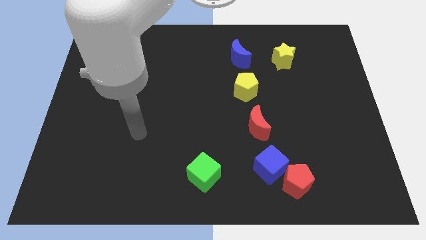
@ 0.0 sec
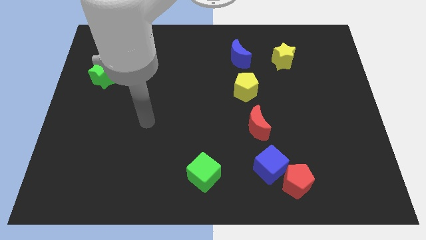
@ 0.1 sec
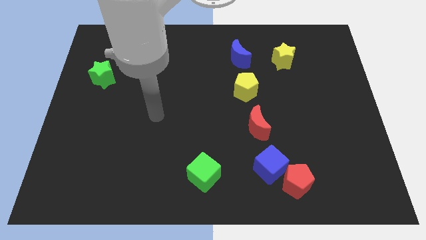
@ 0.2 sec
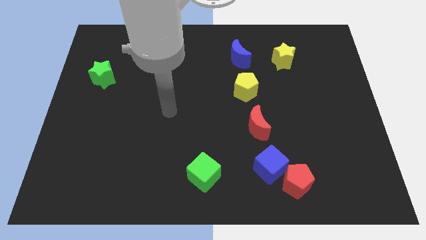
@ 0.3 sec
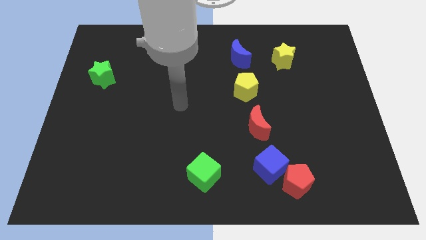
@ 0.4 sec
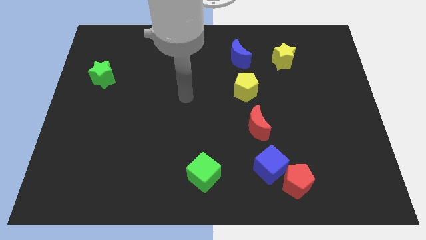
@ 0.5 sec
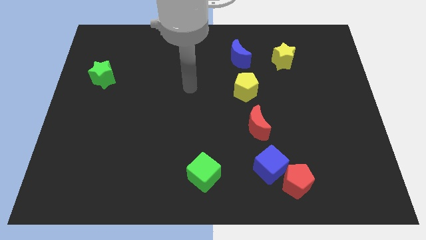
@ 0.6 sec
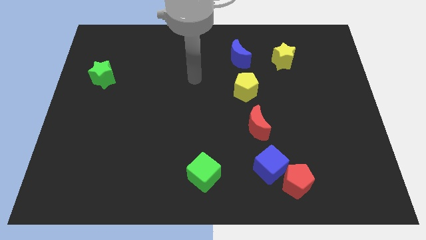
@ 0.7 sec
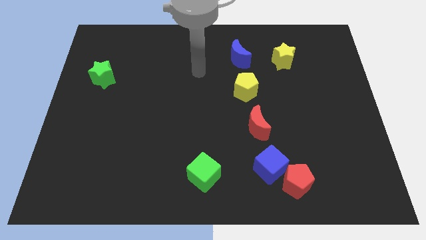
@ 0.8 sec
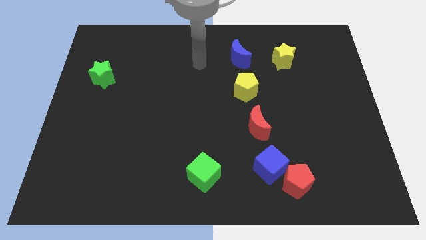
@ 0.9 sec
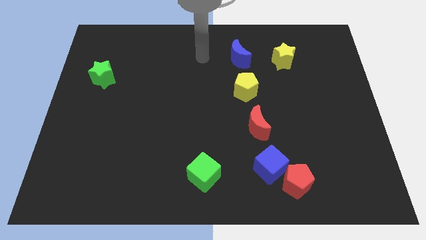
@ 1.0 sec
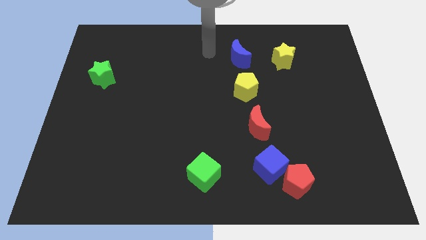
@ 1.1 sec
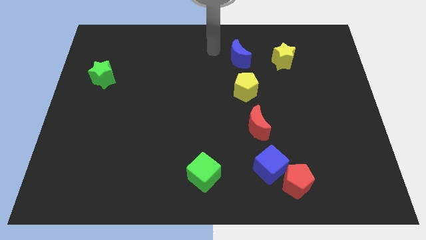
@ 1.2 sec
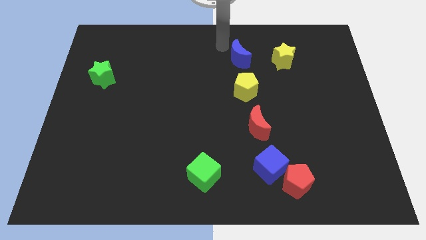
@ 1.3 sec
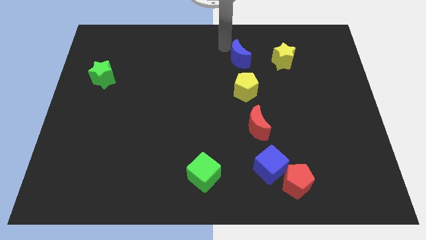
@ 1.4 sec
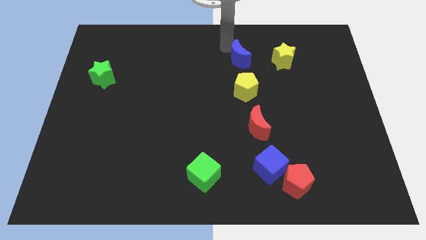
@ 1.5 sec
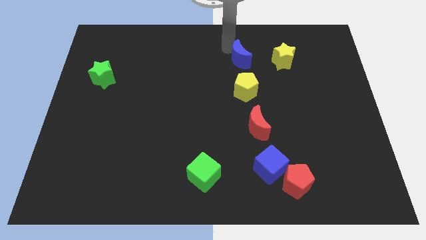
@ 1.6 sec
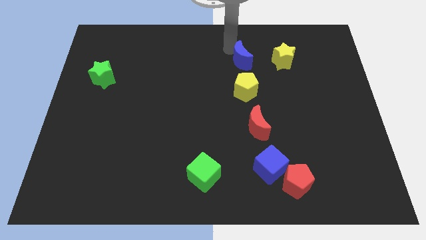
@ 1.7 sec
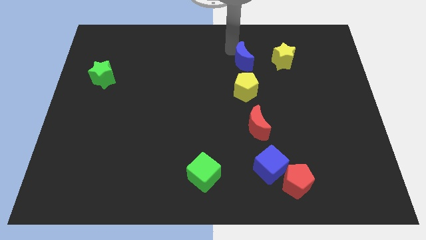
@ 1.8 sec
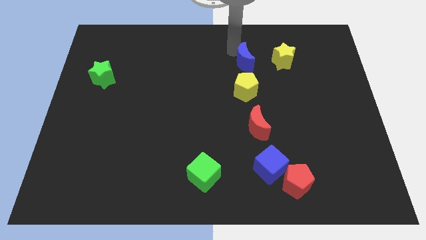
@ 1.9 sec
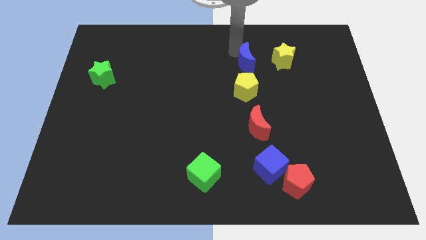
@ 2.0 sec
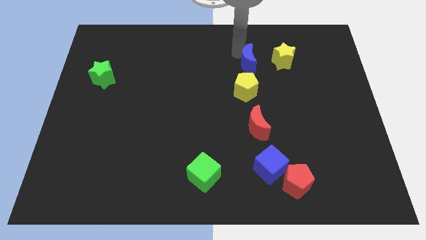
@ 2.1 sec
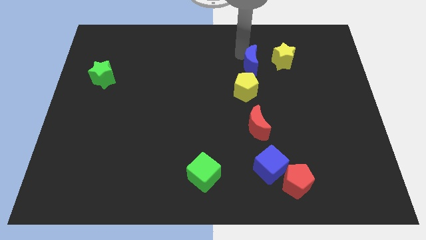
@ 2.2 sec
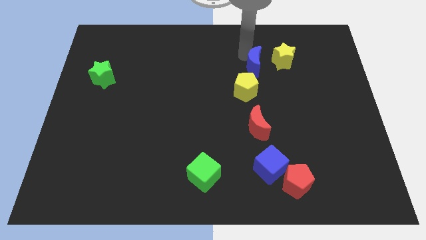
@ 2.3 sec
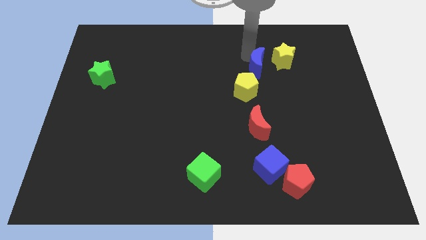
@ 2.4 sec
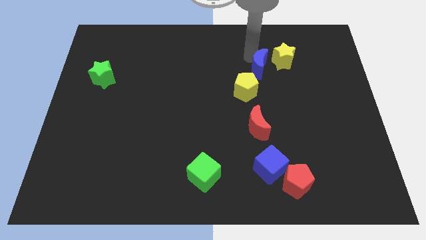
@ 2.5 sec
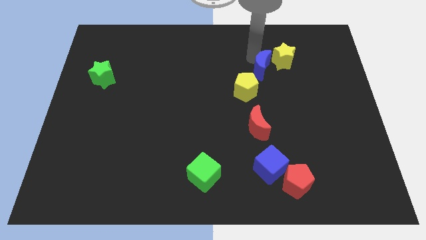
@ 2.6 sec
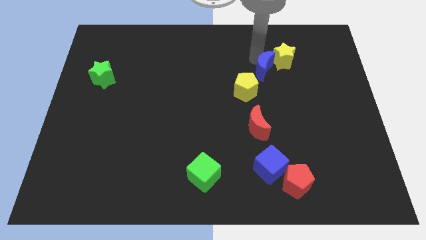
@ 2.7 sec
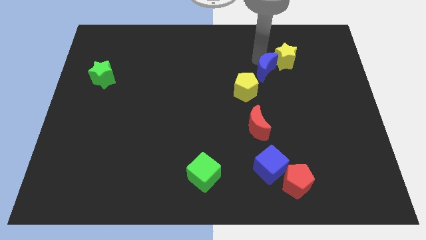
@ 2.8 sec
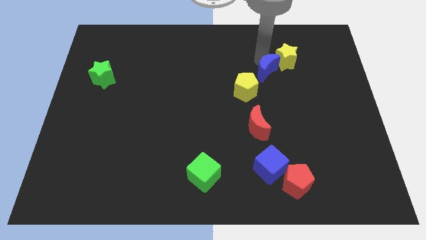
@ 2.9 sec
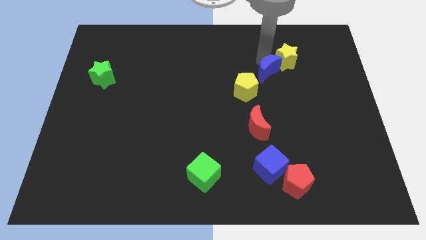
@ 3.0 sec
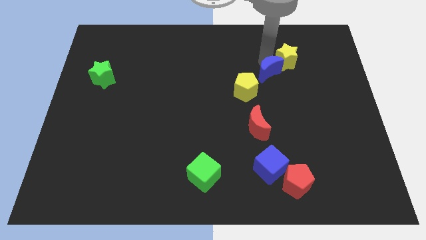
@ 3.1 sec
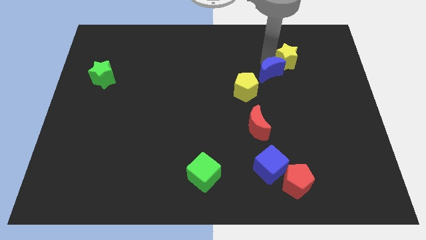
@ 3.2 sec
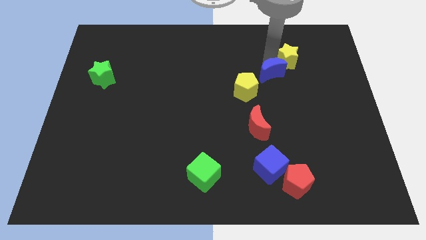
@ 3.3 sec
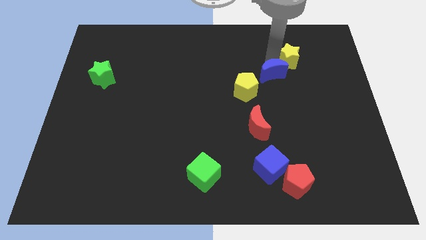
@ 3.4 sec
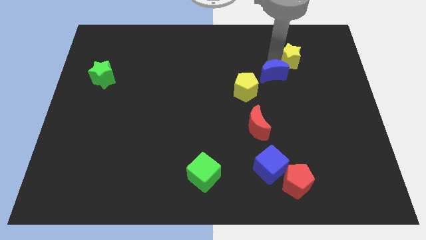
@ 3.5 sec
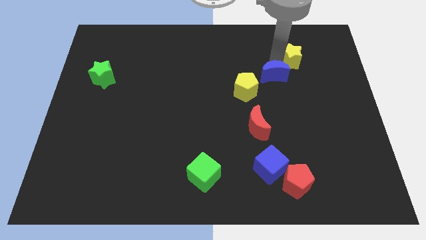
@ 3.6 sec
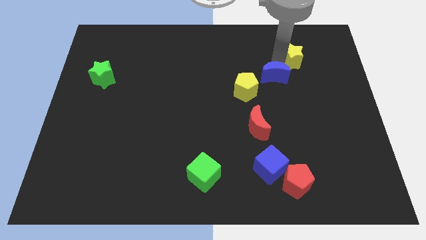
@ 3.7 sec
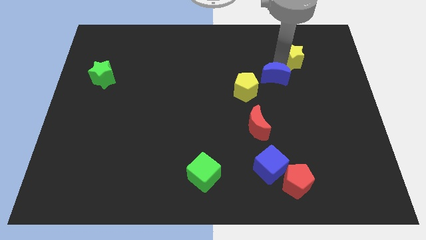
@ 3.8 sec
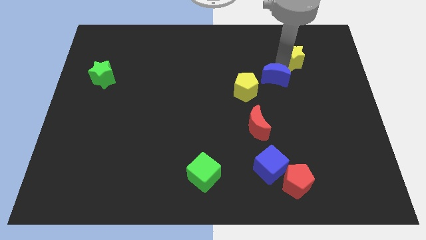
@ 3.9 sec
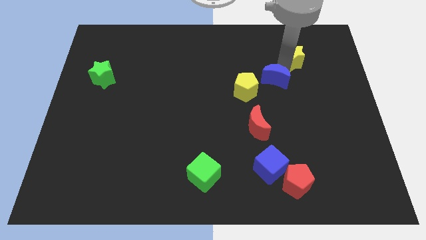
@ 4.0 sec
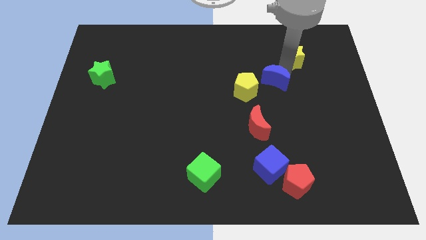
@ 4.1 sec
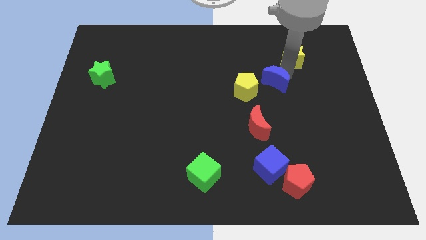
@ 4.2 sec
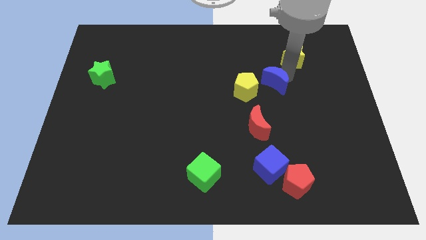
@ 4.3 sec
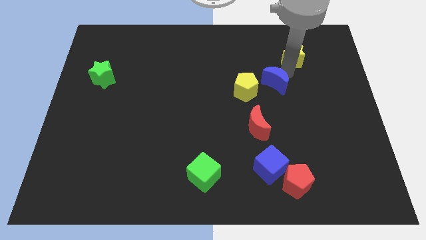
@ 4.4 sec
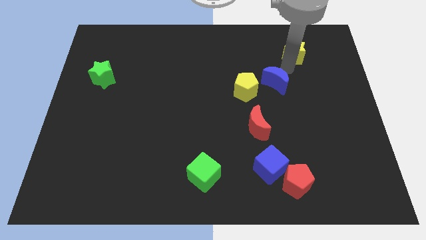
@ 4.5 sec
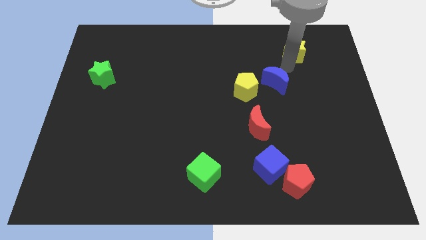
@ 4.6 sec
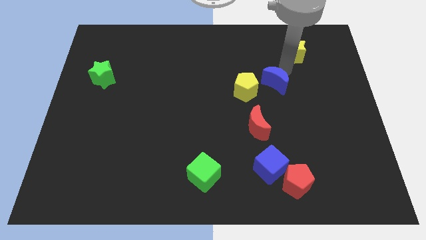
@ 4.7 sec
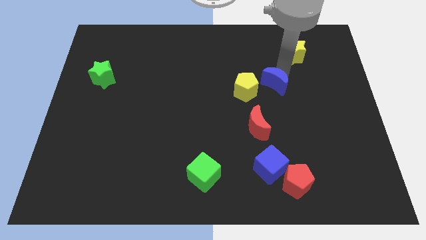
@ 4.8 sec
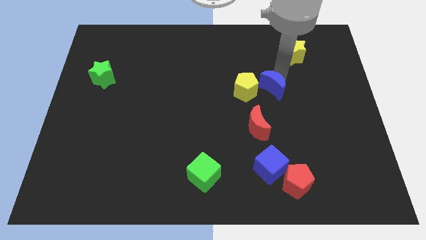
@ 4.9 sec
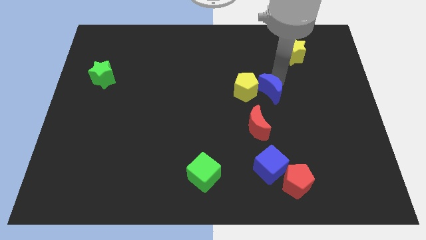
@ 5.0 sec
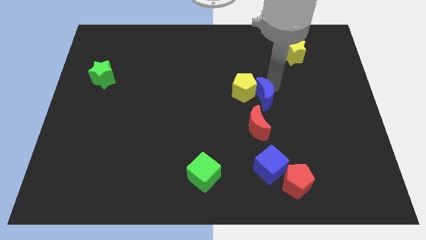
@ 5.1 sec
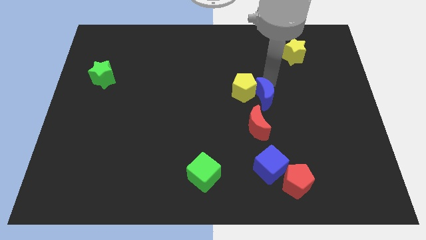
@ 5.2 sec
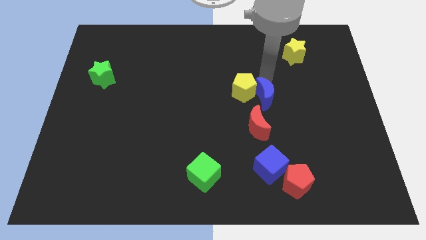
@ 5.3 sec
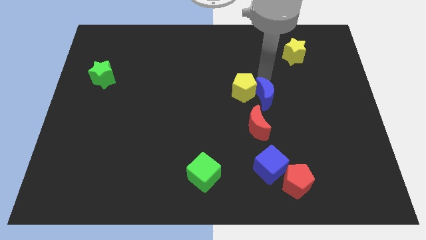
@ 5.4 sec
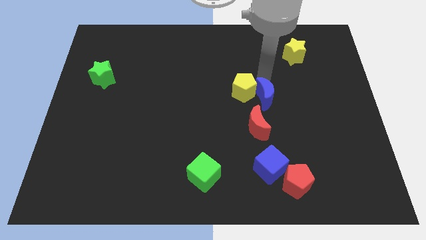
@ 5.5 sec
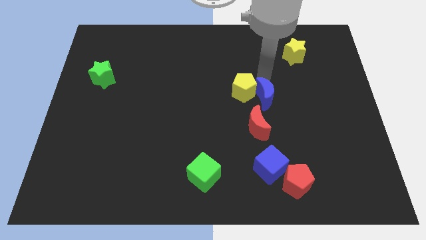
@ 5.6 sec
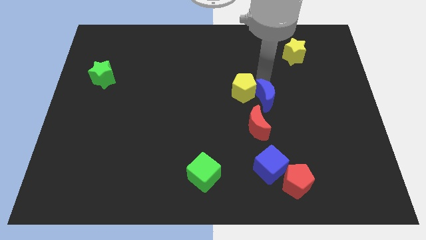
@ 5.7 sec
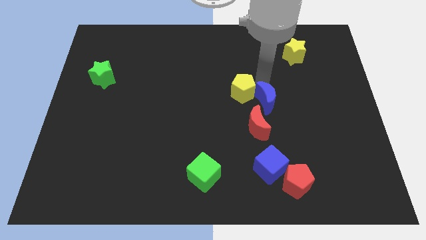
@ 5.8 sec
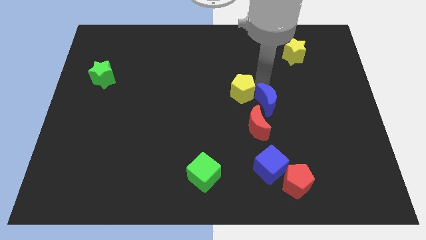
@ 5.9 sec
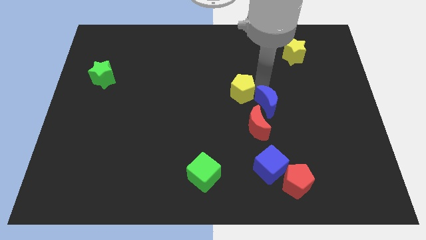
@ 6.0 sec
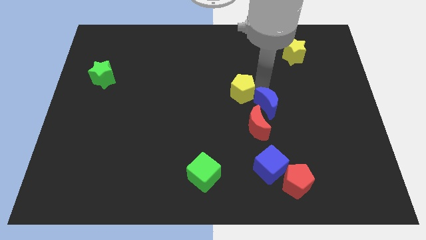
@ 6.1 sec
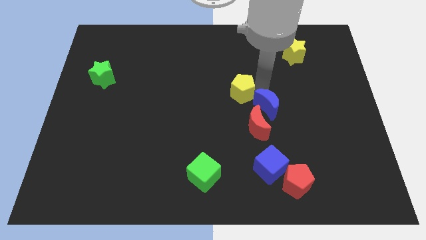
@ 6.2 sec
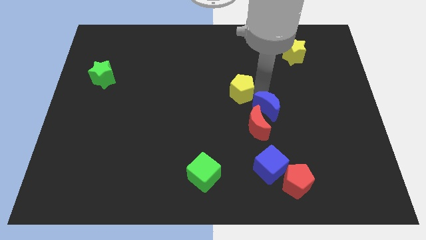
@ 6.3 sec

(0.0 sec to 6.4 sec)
slide the blue moon next to the red moon

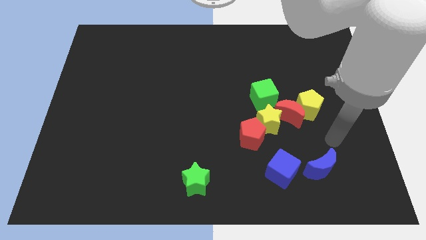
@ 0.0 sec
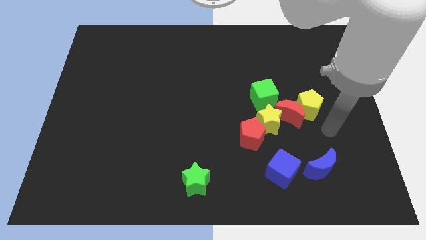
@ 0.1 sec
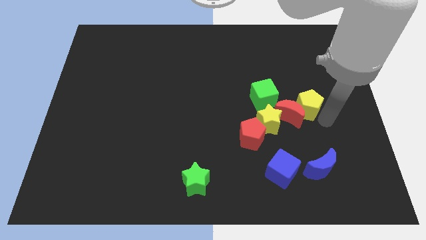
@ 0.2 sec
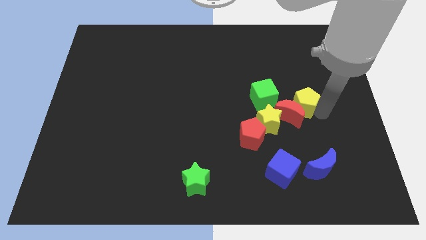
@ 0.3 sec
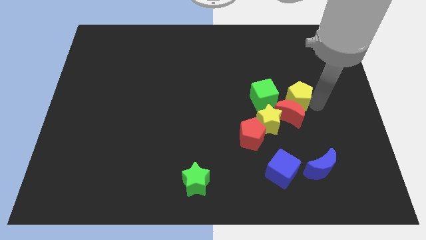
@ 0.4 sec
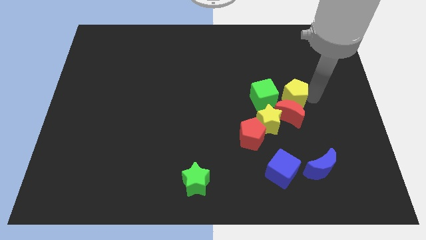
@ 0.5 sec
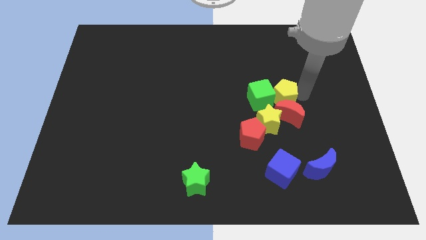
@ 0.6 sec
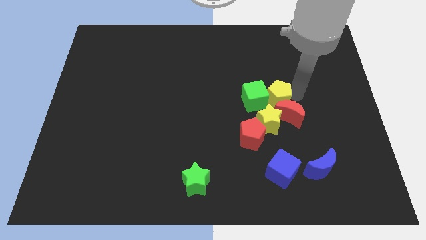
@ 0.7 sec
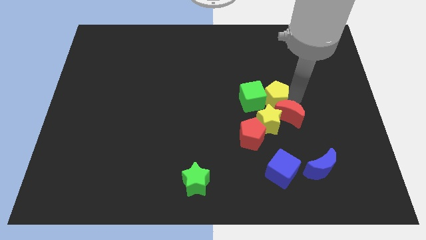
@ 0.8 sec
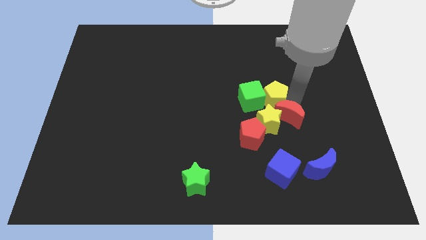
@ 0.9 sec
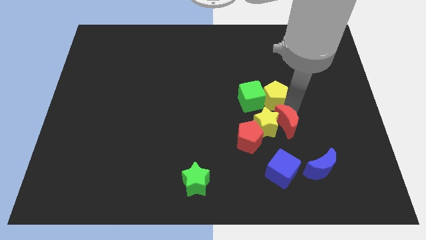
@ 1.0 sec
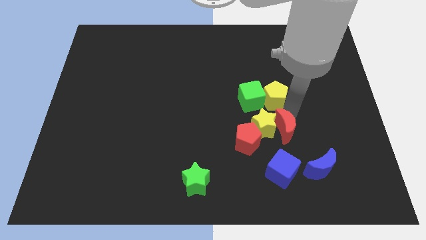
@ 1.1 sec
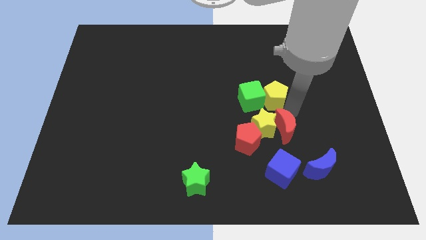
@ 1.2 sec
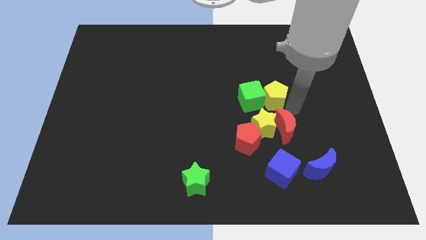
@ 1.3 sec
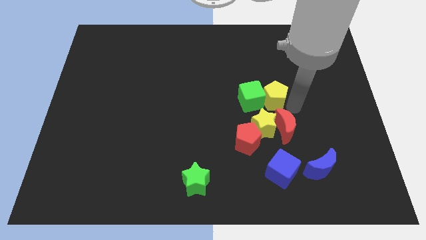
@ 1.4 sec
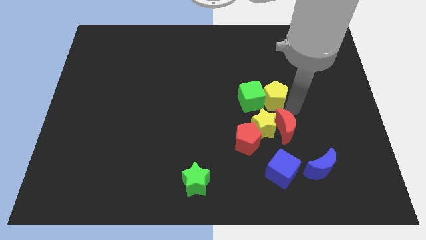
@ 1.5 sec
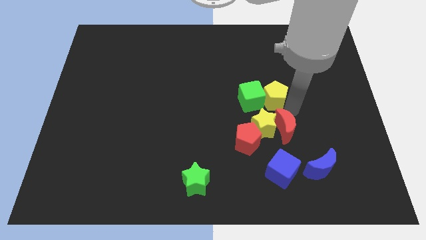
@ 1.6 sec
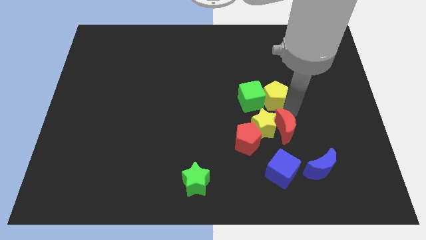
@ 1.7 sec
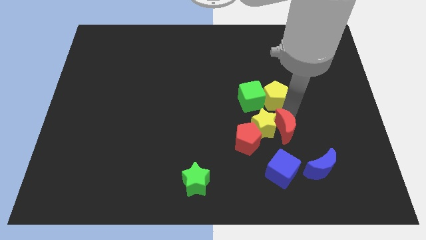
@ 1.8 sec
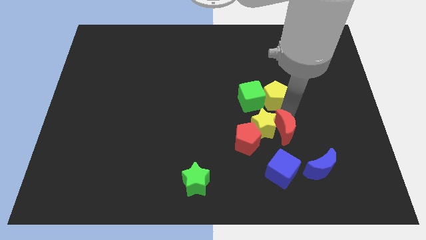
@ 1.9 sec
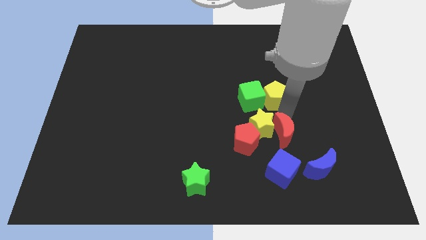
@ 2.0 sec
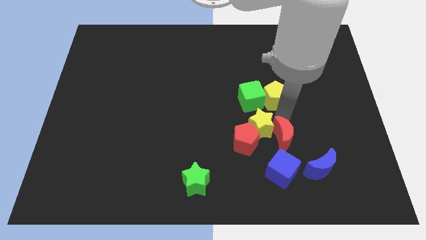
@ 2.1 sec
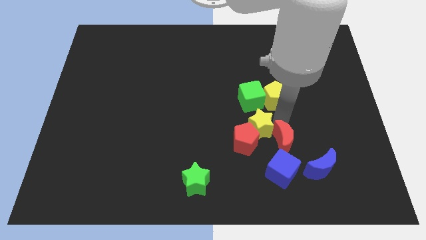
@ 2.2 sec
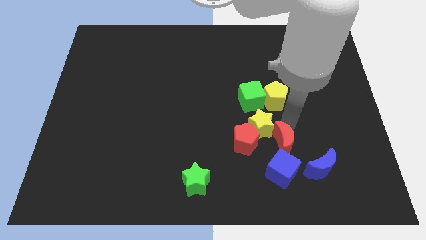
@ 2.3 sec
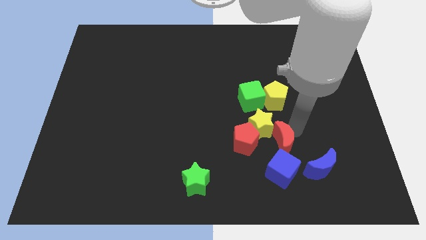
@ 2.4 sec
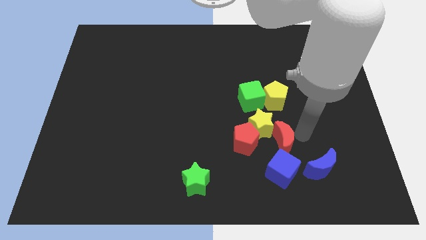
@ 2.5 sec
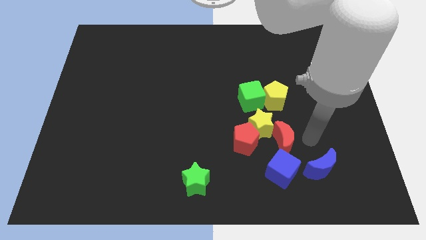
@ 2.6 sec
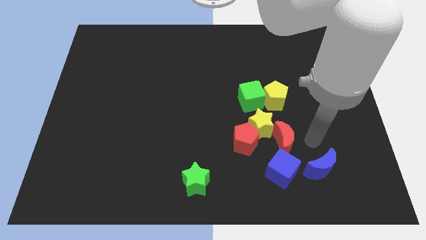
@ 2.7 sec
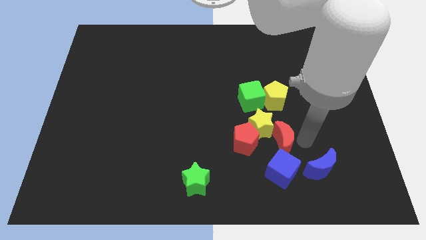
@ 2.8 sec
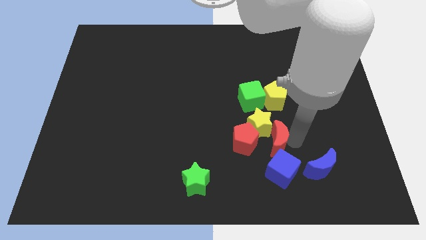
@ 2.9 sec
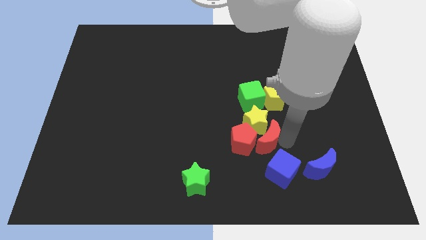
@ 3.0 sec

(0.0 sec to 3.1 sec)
push the red moon close to the red pentagon
